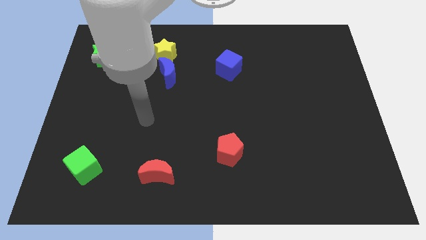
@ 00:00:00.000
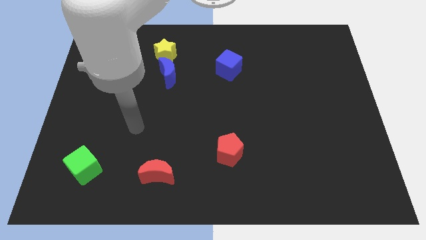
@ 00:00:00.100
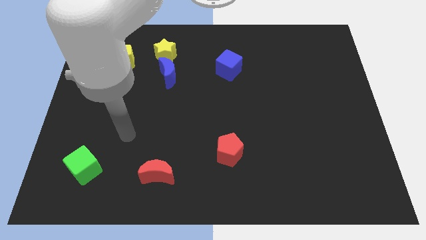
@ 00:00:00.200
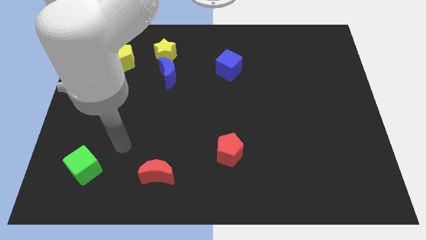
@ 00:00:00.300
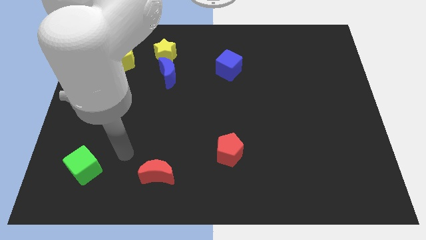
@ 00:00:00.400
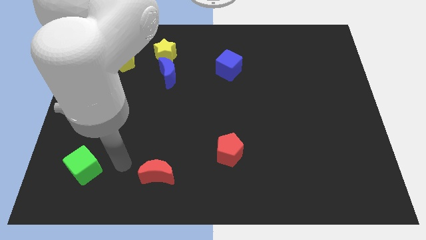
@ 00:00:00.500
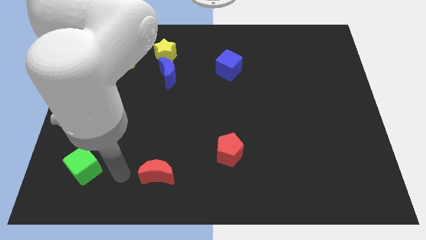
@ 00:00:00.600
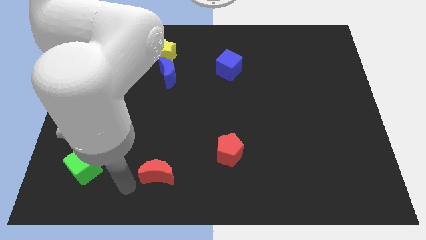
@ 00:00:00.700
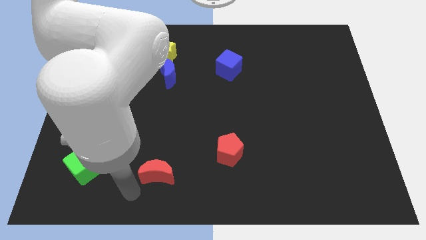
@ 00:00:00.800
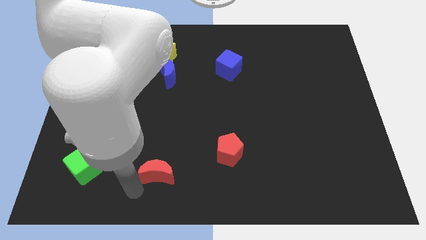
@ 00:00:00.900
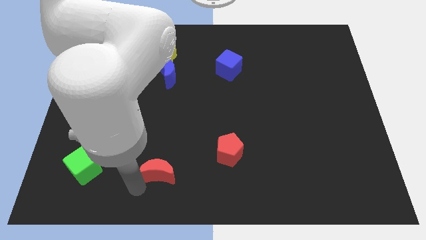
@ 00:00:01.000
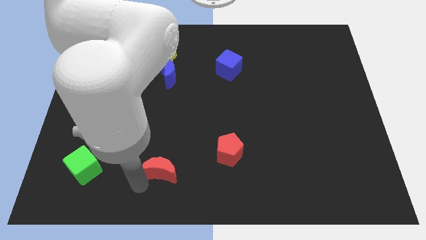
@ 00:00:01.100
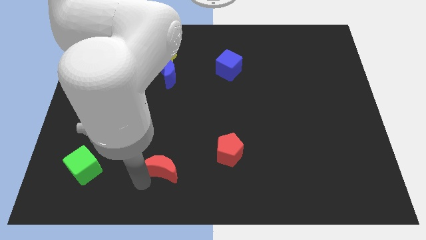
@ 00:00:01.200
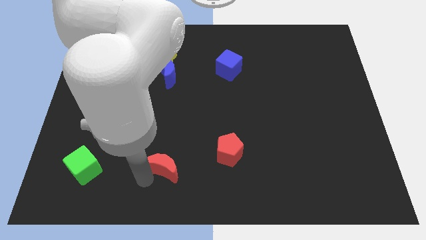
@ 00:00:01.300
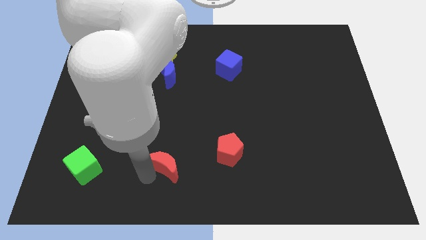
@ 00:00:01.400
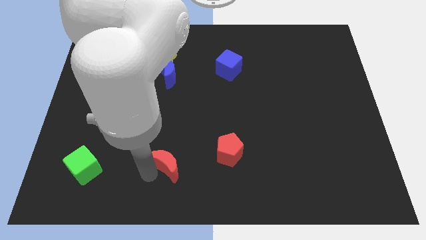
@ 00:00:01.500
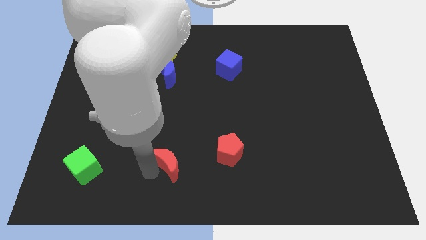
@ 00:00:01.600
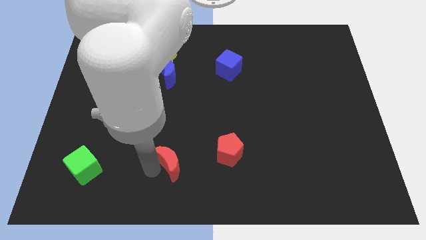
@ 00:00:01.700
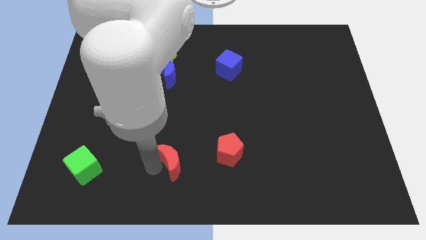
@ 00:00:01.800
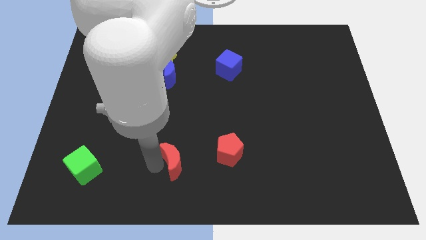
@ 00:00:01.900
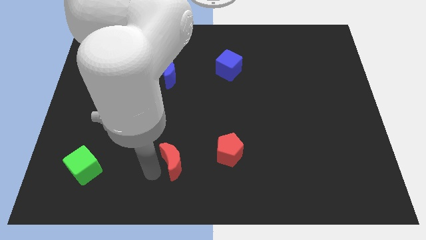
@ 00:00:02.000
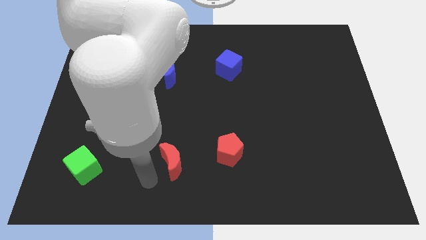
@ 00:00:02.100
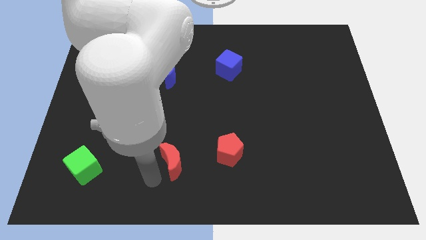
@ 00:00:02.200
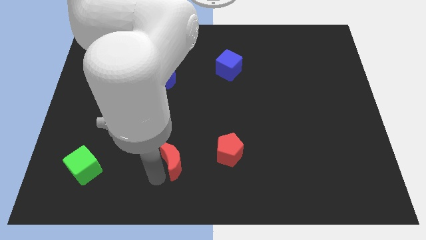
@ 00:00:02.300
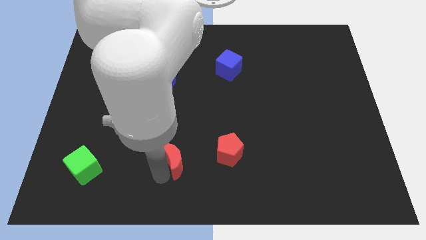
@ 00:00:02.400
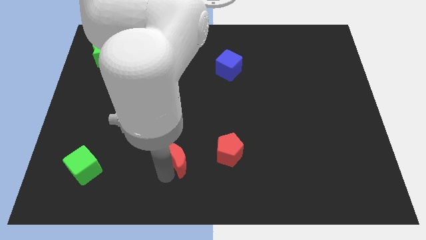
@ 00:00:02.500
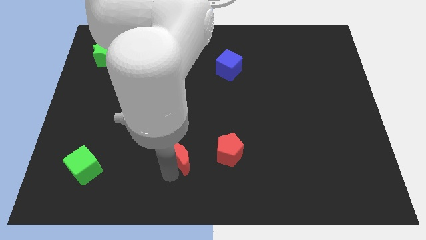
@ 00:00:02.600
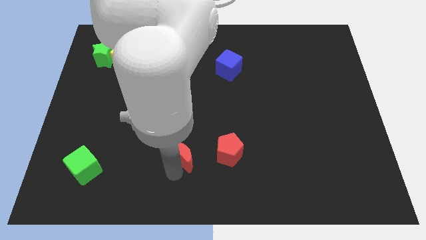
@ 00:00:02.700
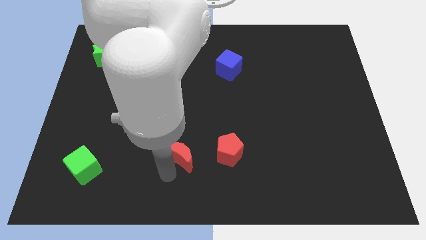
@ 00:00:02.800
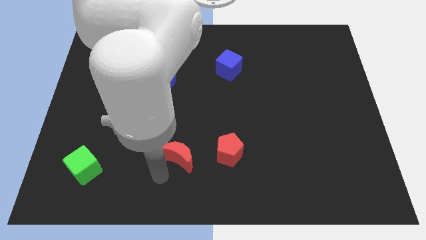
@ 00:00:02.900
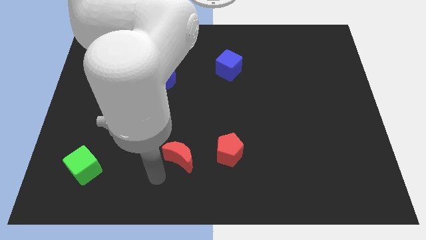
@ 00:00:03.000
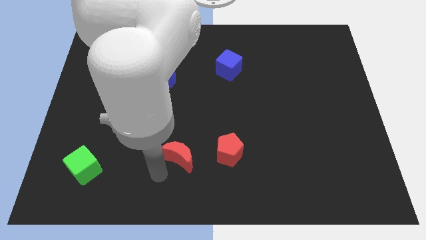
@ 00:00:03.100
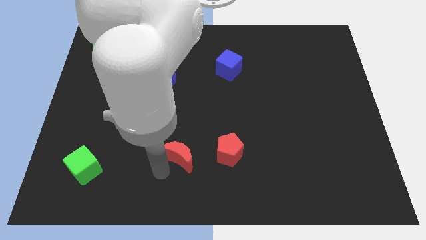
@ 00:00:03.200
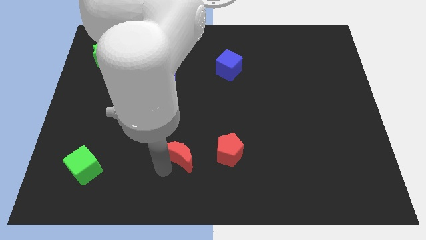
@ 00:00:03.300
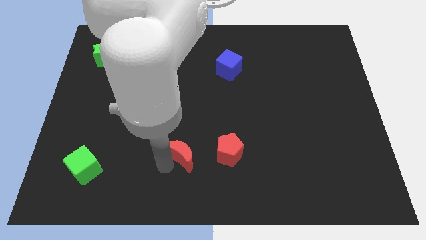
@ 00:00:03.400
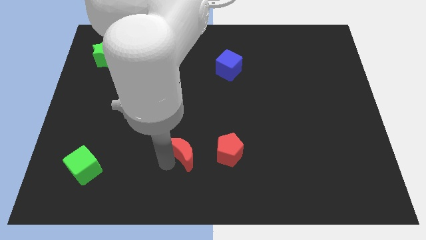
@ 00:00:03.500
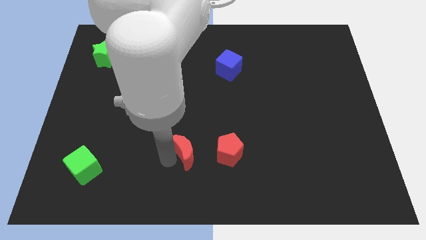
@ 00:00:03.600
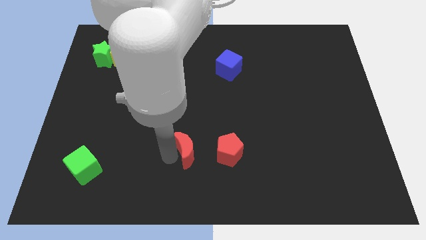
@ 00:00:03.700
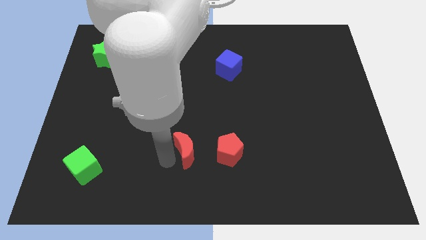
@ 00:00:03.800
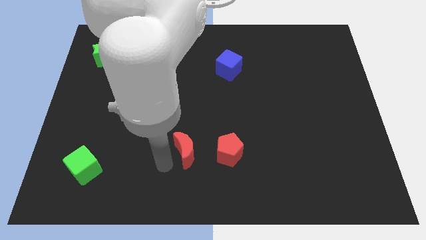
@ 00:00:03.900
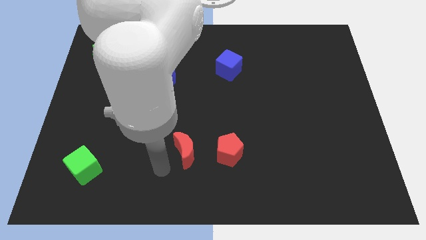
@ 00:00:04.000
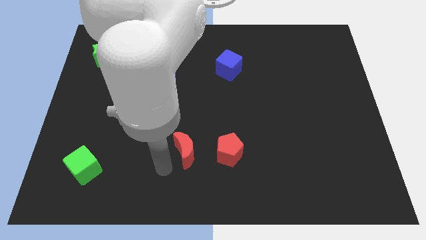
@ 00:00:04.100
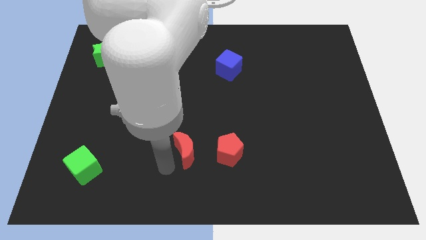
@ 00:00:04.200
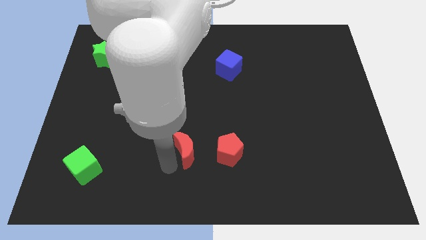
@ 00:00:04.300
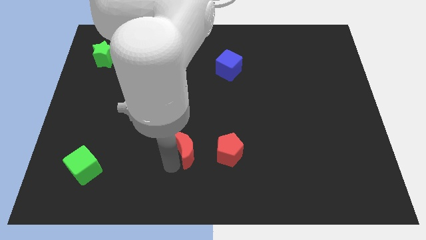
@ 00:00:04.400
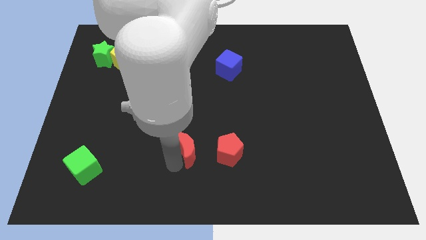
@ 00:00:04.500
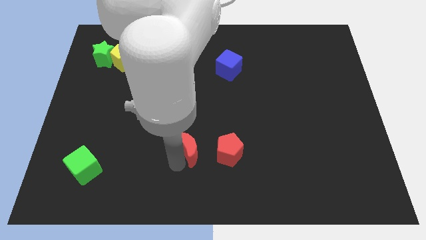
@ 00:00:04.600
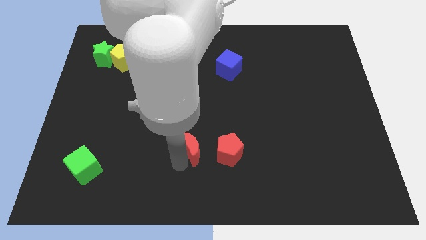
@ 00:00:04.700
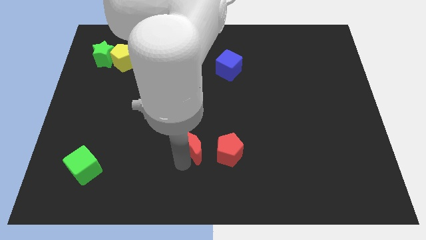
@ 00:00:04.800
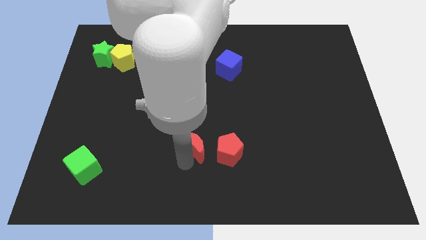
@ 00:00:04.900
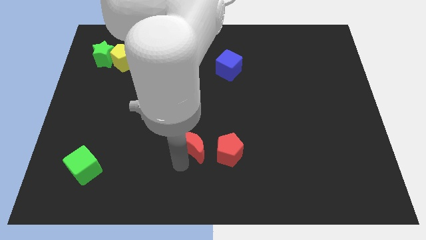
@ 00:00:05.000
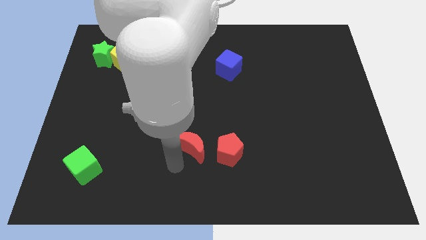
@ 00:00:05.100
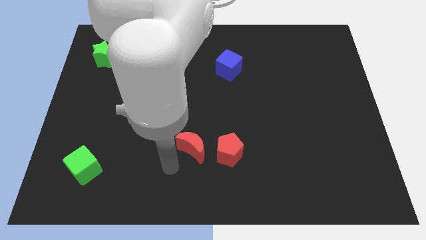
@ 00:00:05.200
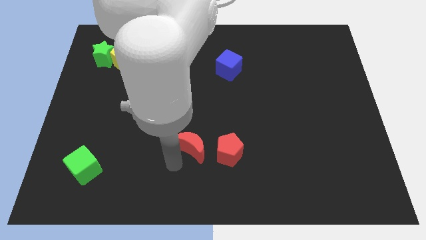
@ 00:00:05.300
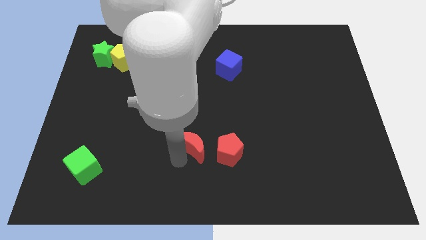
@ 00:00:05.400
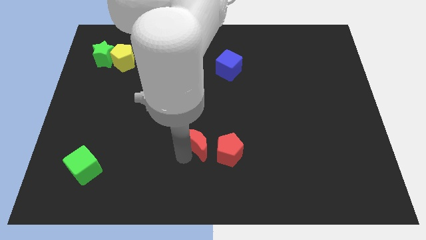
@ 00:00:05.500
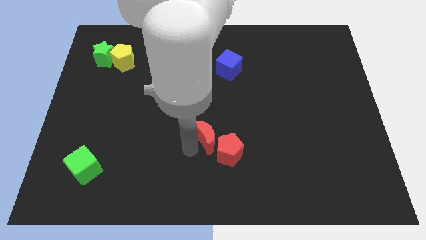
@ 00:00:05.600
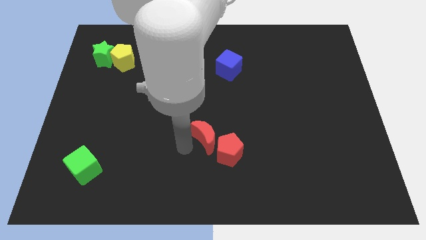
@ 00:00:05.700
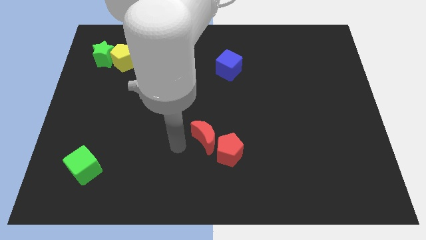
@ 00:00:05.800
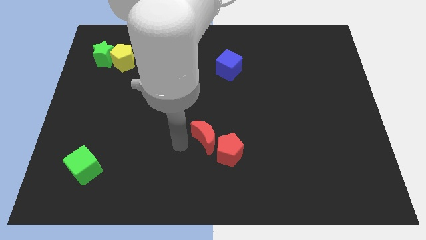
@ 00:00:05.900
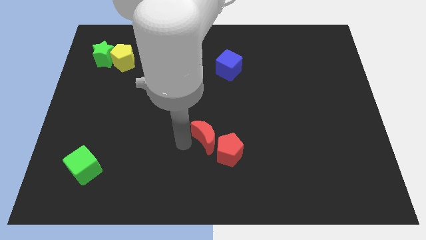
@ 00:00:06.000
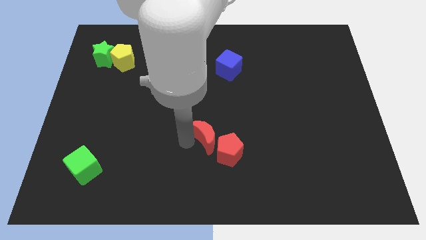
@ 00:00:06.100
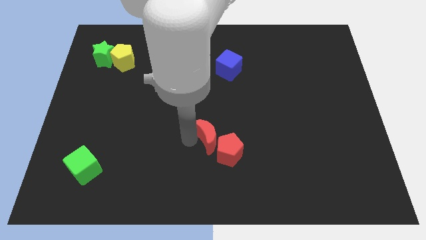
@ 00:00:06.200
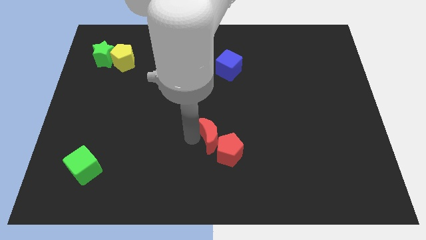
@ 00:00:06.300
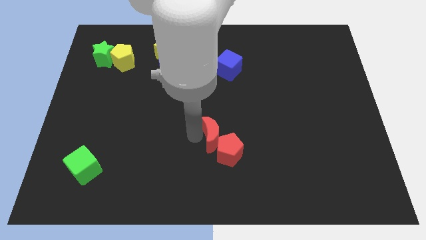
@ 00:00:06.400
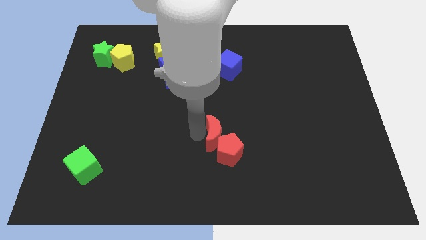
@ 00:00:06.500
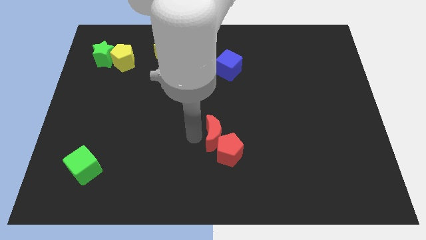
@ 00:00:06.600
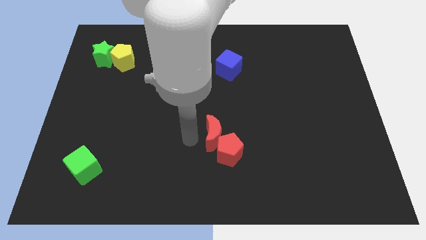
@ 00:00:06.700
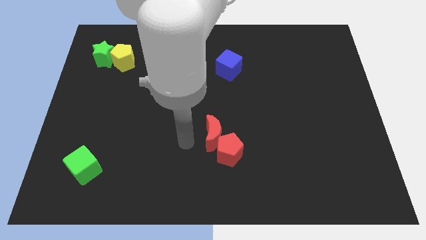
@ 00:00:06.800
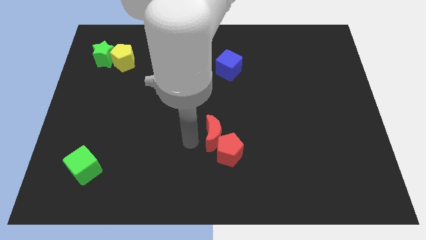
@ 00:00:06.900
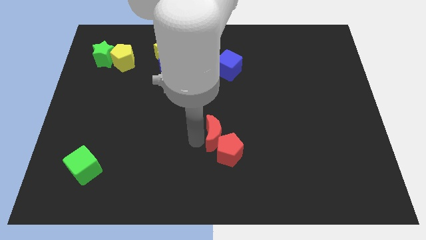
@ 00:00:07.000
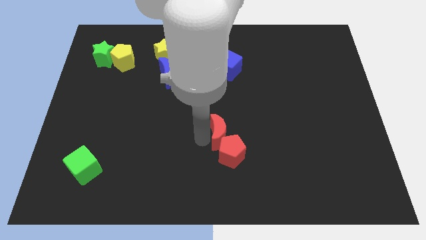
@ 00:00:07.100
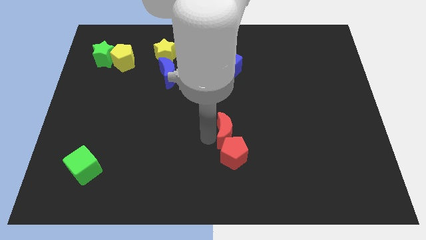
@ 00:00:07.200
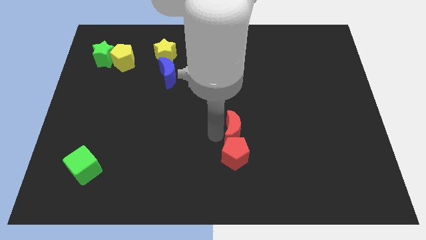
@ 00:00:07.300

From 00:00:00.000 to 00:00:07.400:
push the red moon to the top right side of the red pentagon

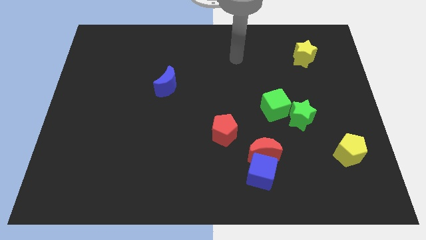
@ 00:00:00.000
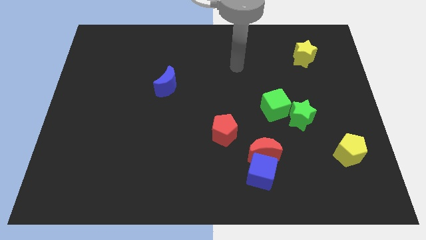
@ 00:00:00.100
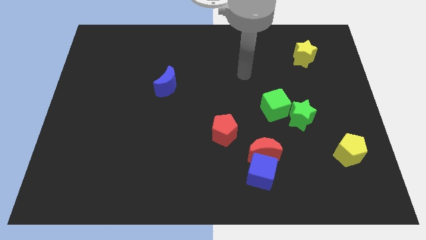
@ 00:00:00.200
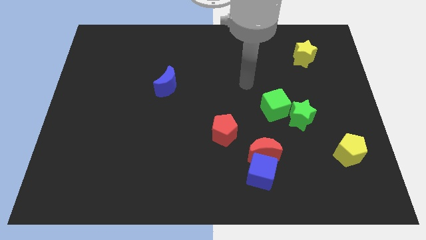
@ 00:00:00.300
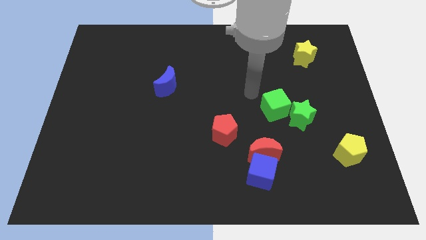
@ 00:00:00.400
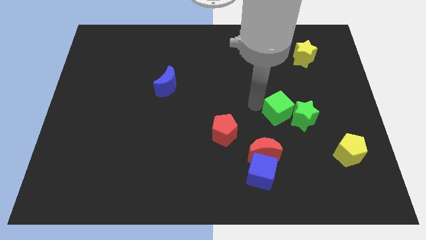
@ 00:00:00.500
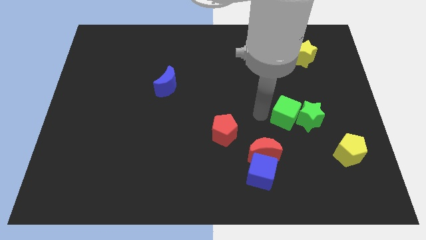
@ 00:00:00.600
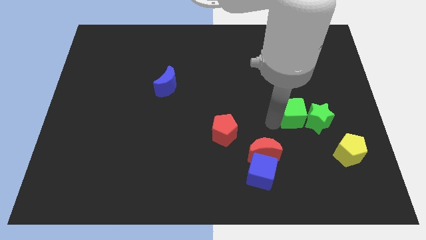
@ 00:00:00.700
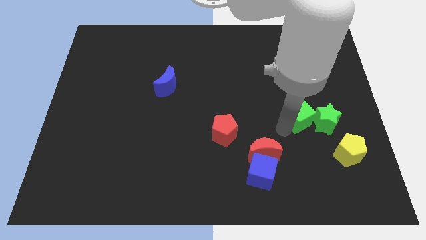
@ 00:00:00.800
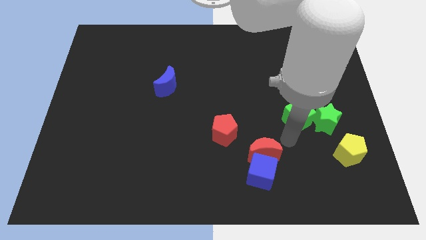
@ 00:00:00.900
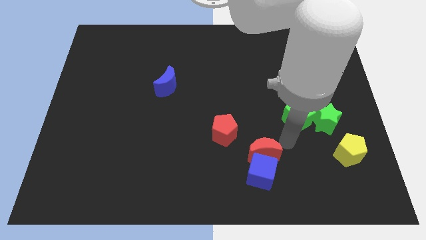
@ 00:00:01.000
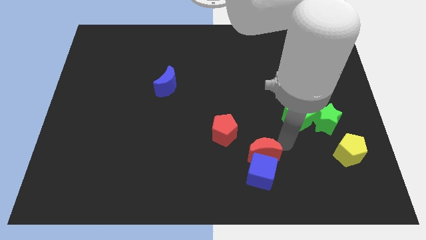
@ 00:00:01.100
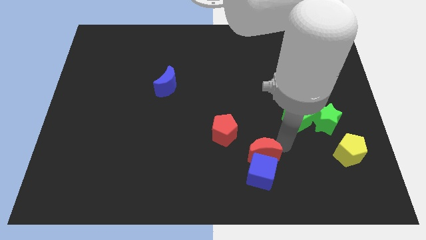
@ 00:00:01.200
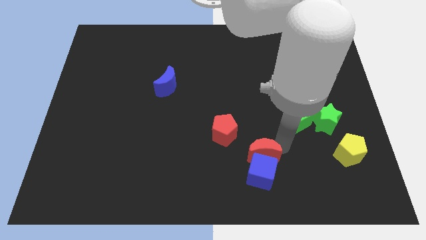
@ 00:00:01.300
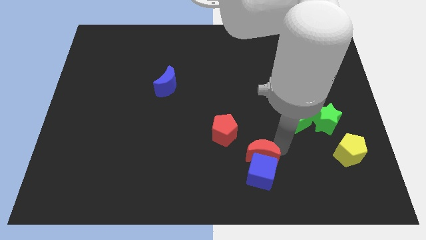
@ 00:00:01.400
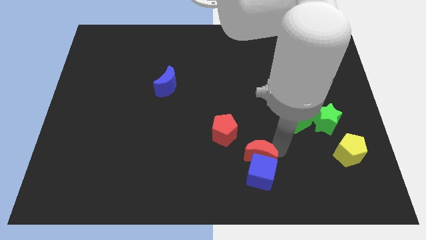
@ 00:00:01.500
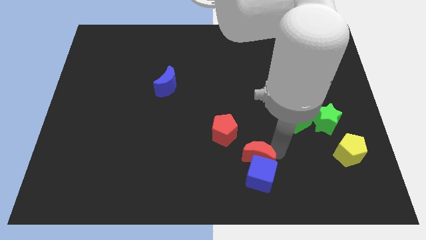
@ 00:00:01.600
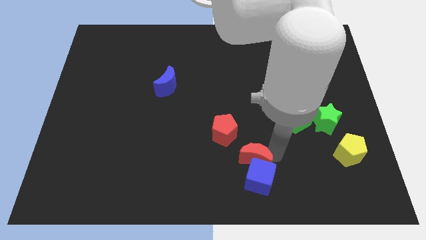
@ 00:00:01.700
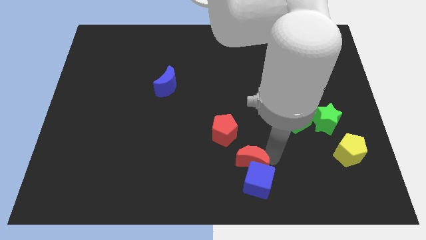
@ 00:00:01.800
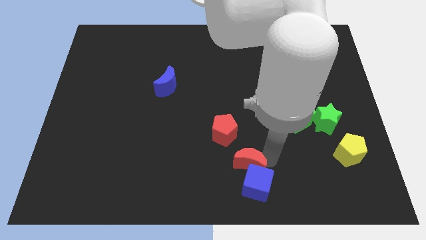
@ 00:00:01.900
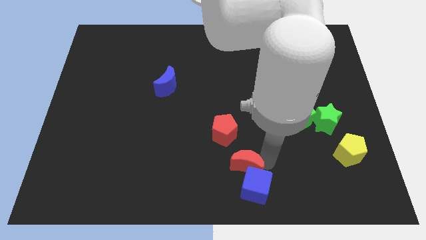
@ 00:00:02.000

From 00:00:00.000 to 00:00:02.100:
push the red moon below the red pentagon
